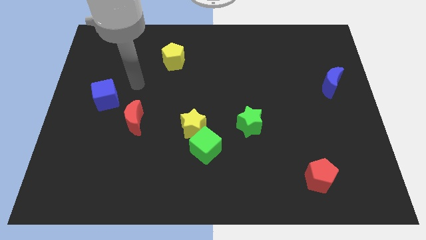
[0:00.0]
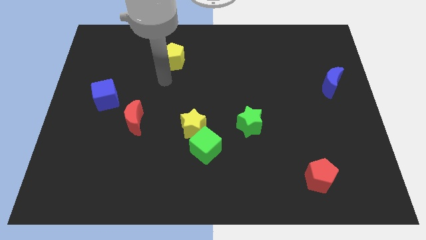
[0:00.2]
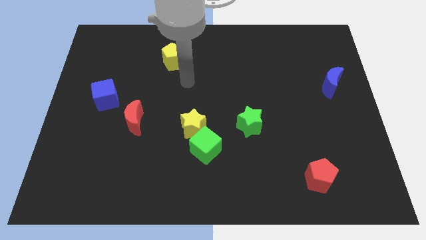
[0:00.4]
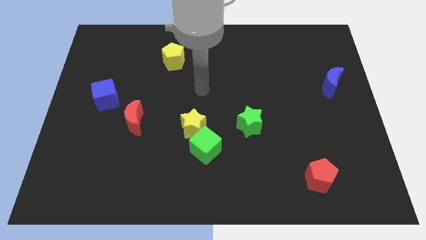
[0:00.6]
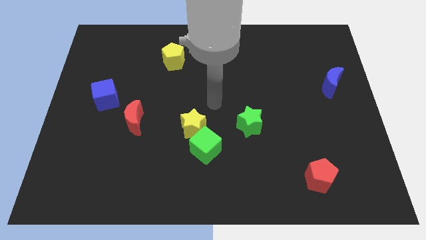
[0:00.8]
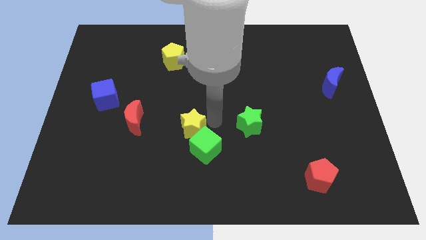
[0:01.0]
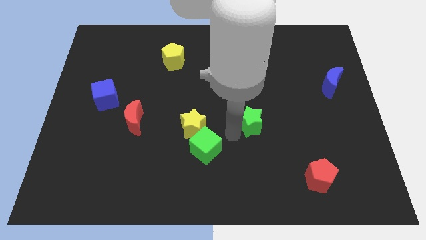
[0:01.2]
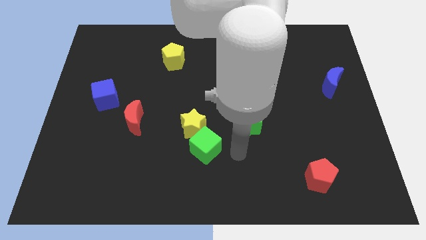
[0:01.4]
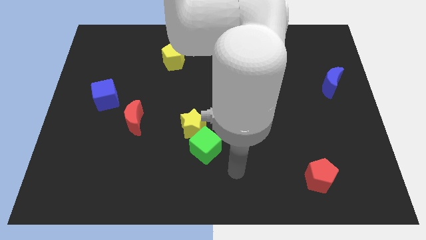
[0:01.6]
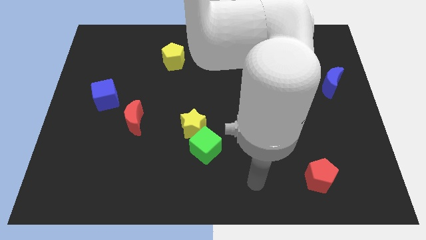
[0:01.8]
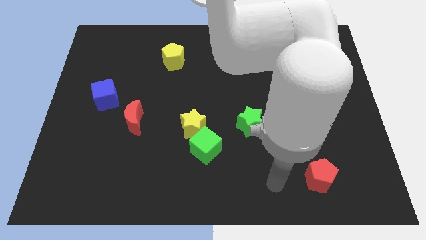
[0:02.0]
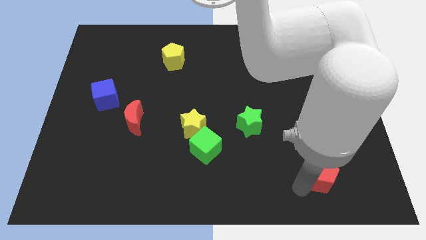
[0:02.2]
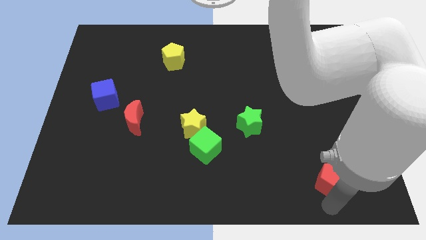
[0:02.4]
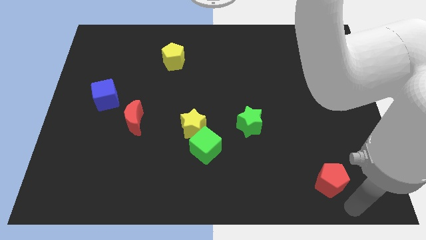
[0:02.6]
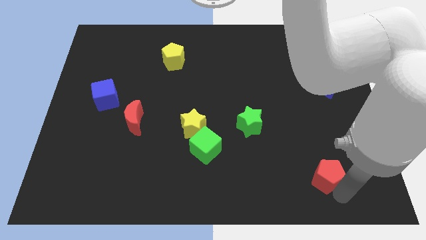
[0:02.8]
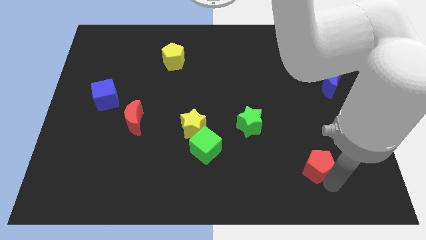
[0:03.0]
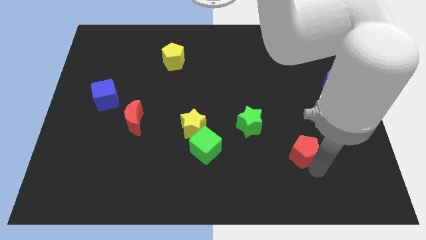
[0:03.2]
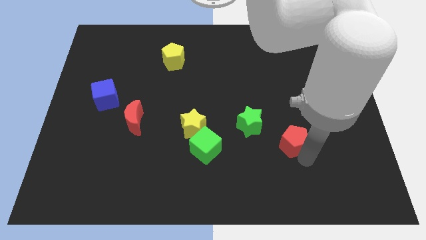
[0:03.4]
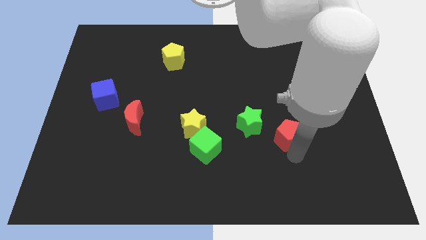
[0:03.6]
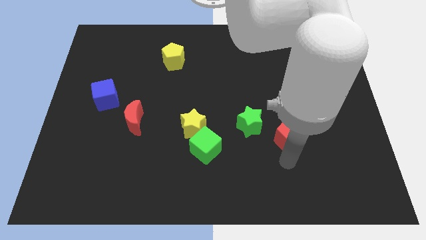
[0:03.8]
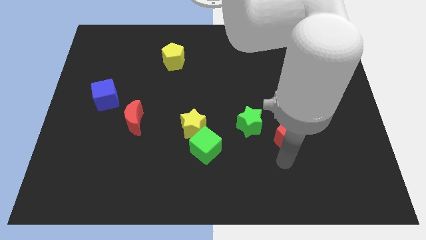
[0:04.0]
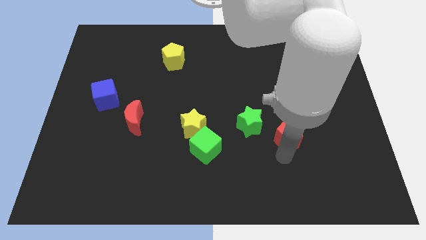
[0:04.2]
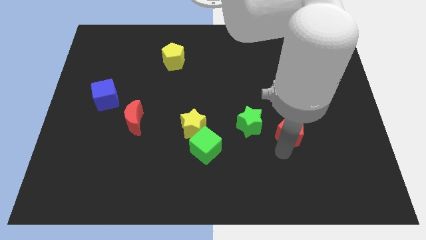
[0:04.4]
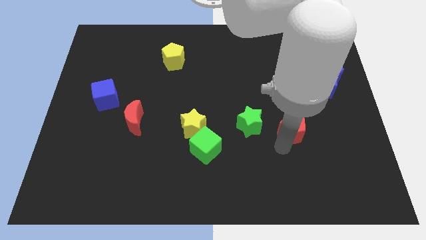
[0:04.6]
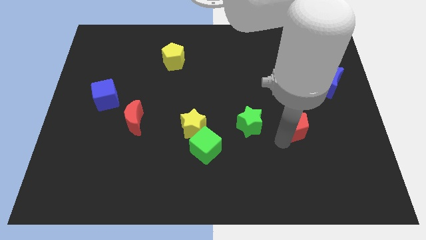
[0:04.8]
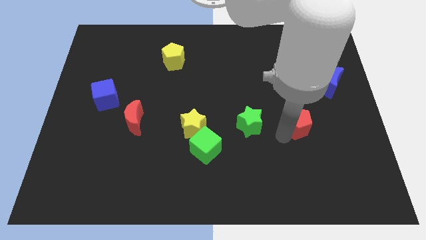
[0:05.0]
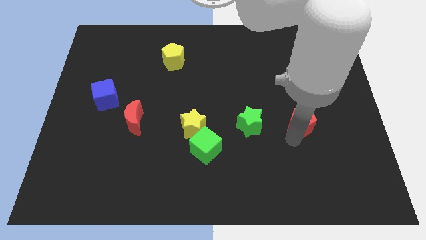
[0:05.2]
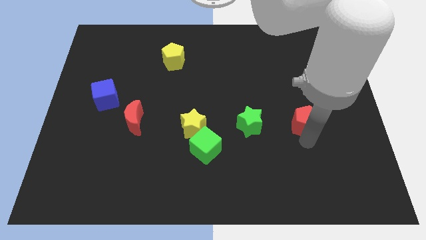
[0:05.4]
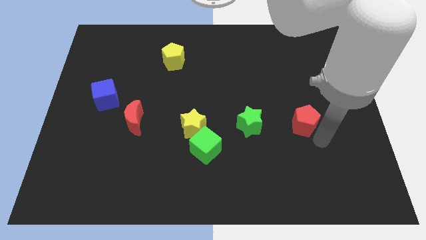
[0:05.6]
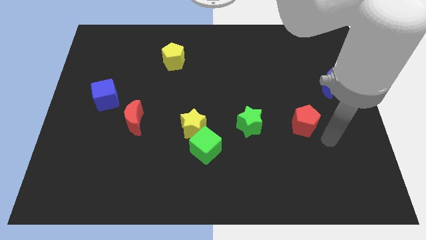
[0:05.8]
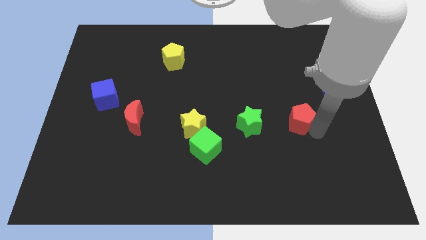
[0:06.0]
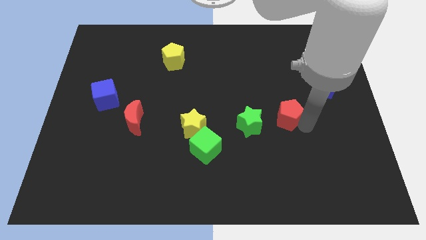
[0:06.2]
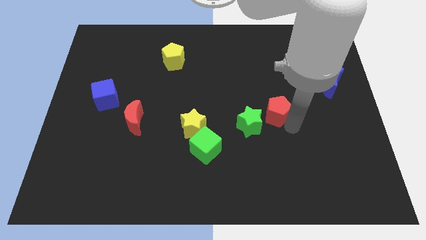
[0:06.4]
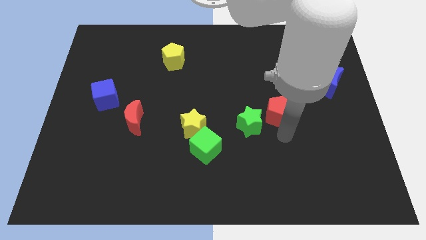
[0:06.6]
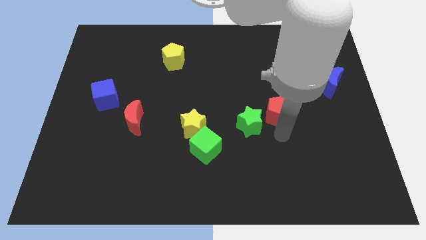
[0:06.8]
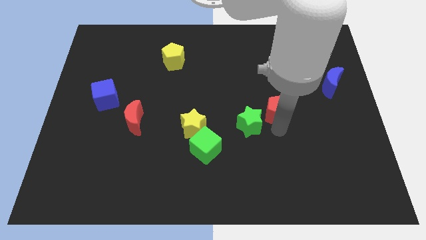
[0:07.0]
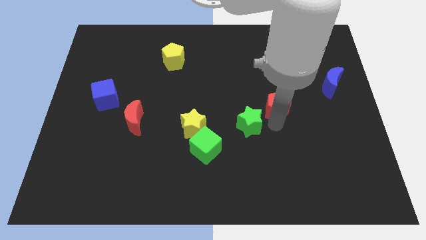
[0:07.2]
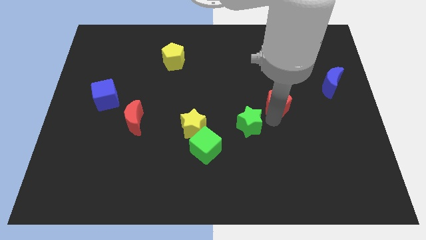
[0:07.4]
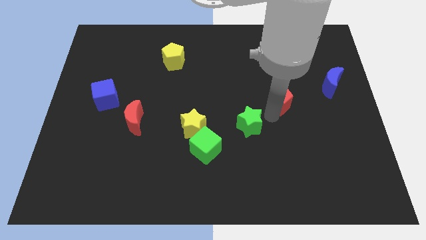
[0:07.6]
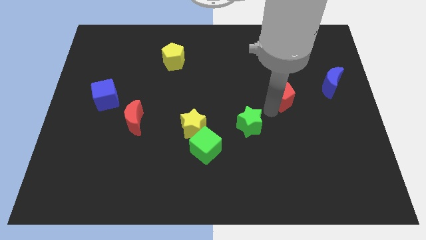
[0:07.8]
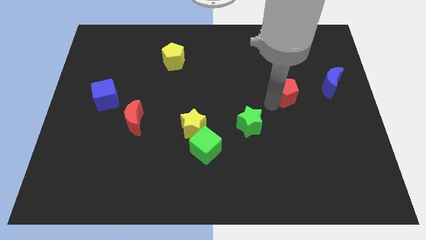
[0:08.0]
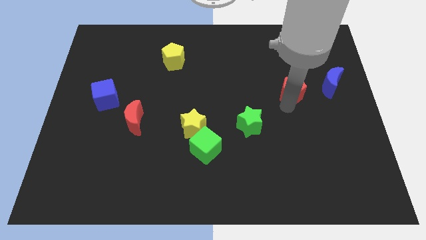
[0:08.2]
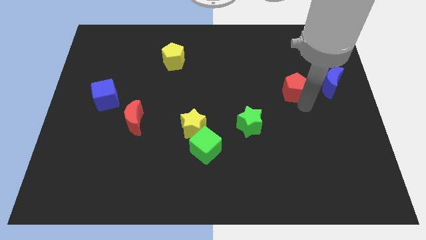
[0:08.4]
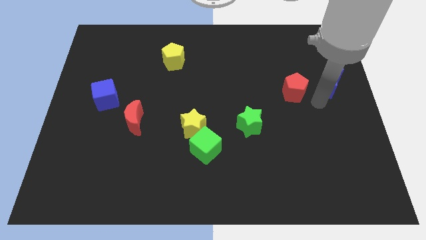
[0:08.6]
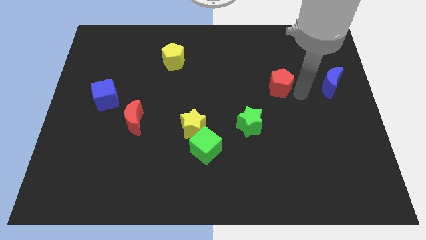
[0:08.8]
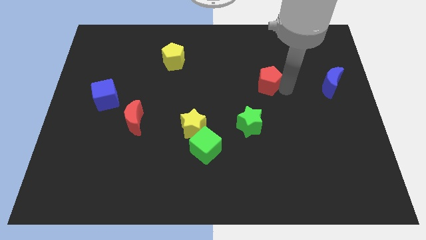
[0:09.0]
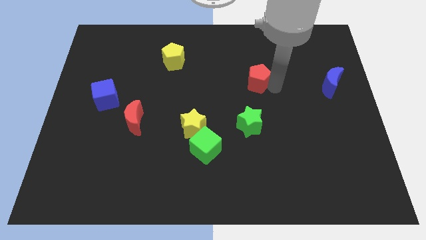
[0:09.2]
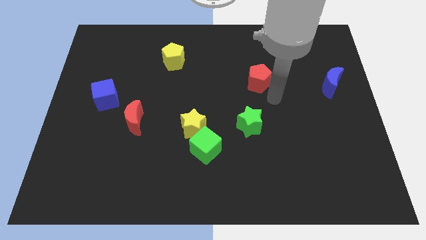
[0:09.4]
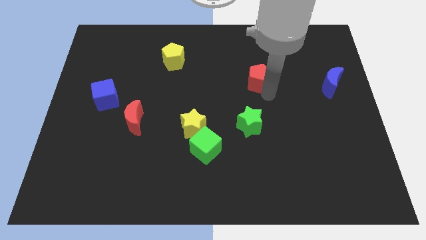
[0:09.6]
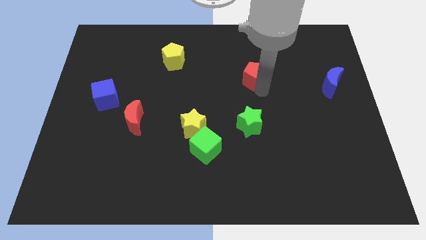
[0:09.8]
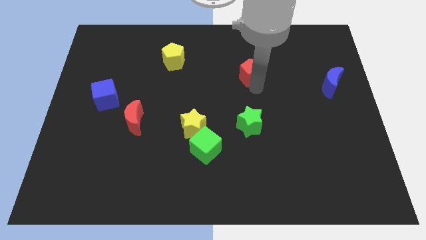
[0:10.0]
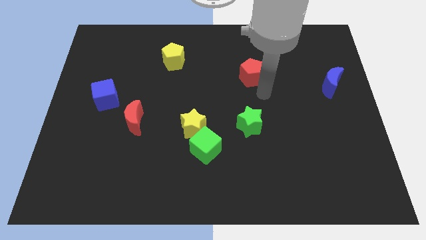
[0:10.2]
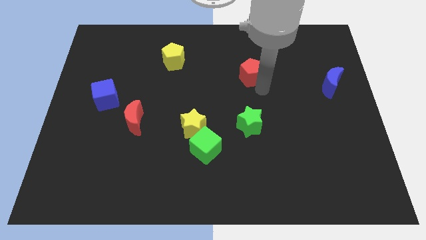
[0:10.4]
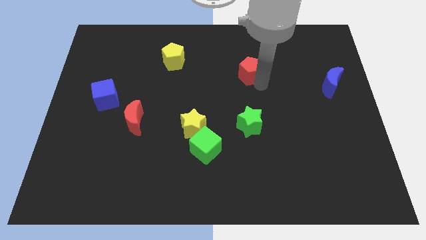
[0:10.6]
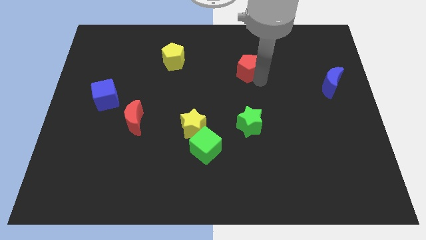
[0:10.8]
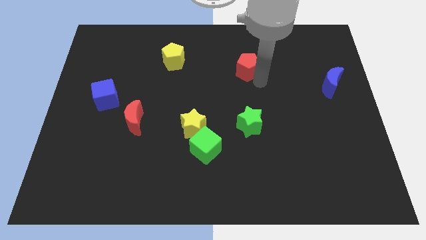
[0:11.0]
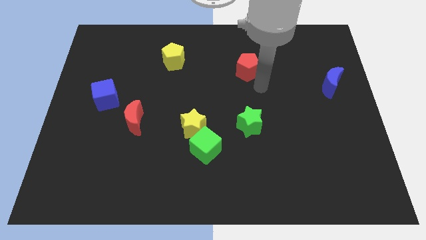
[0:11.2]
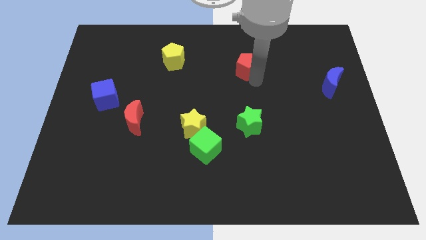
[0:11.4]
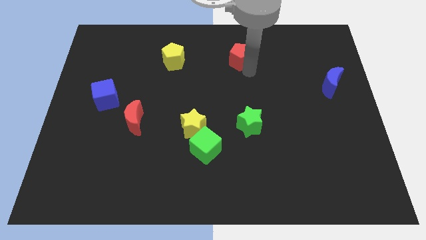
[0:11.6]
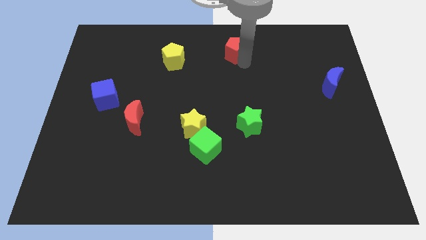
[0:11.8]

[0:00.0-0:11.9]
push the red pentagon to the towards your base

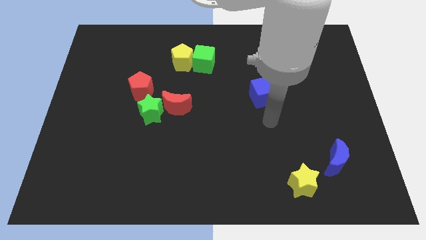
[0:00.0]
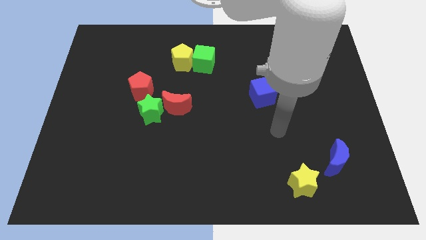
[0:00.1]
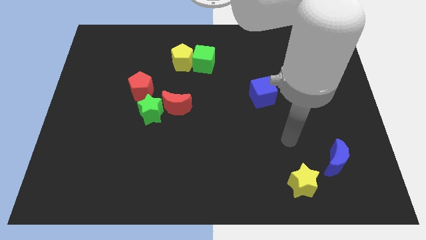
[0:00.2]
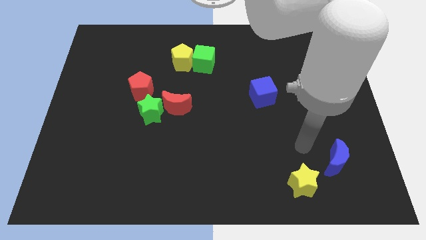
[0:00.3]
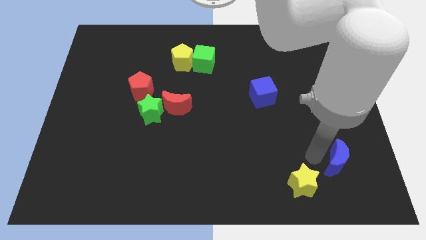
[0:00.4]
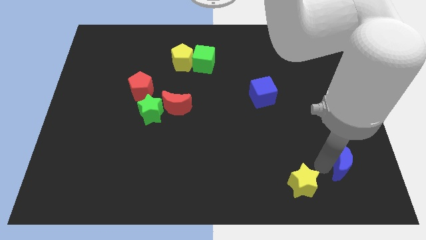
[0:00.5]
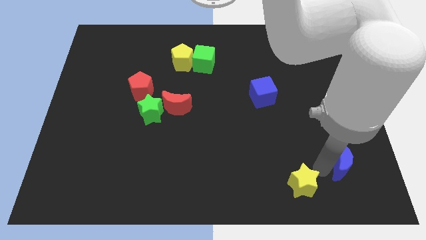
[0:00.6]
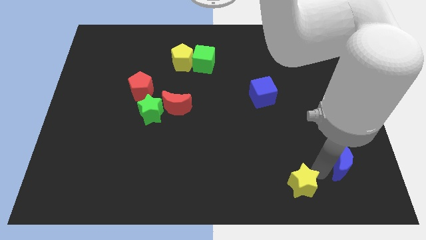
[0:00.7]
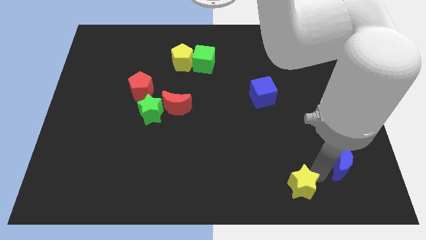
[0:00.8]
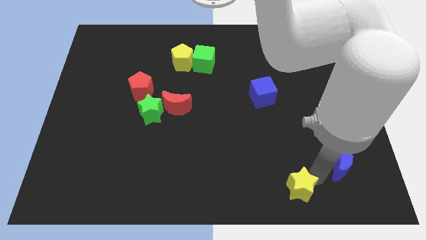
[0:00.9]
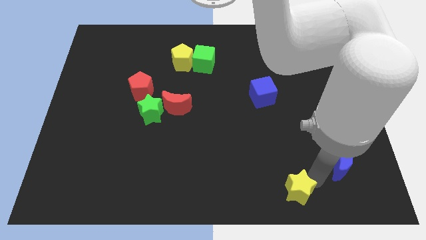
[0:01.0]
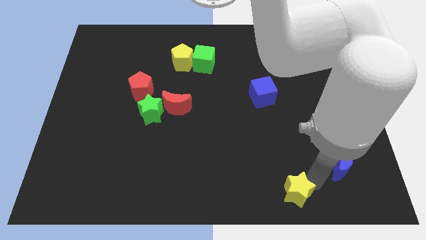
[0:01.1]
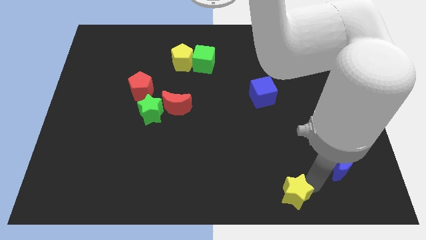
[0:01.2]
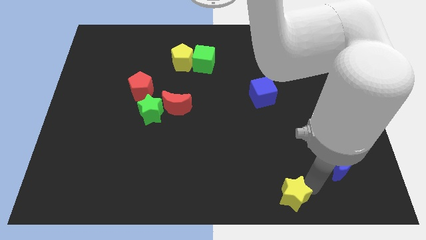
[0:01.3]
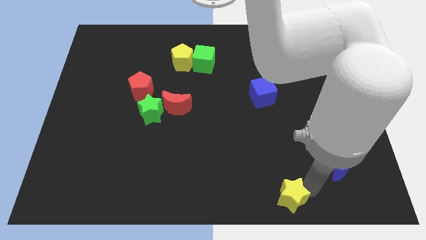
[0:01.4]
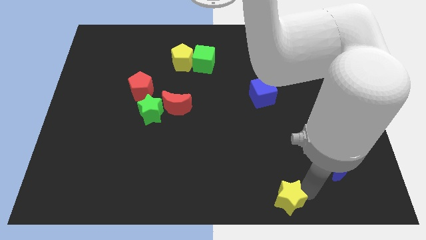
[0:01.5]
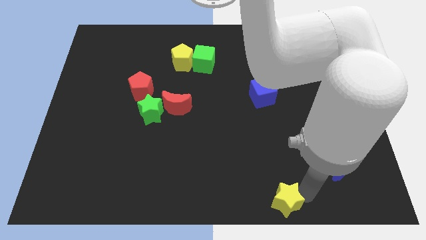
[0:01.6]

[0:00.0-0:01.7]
push the yellow star to the bottom side
